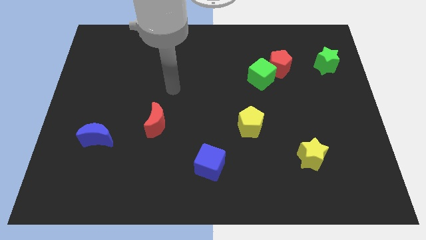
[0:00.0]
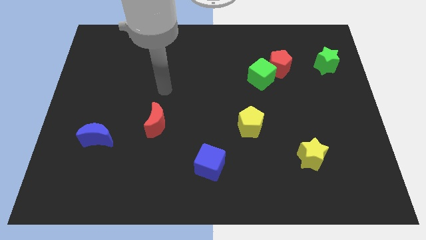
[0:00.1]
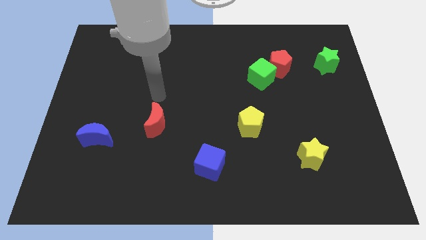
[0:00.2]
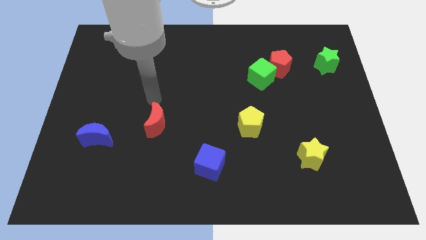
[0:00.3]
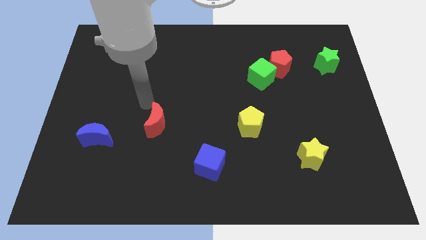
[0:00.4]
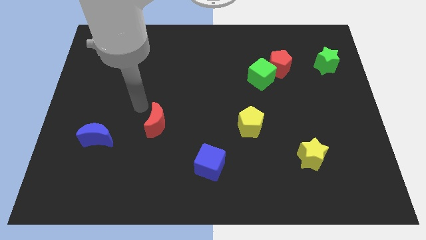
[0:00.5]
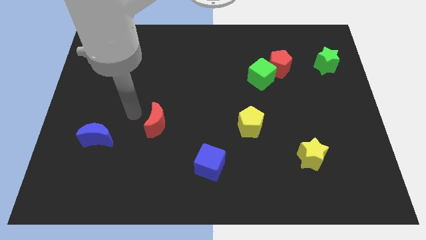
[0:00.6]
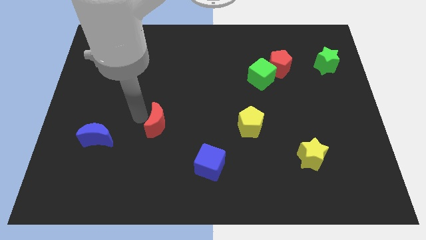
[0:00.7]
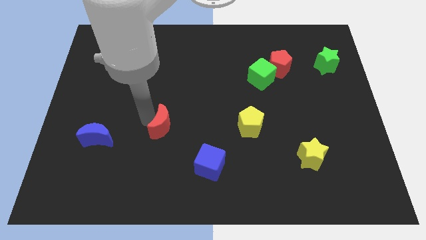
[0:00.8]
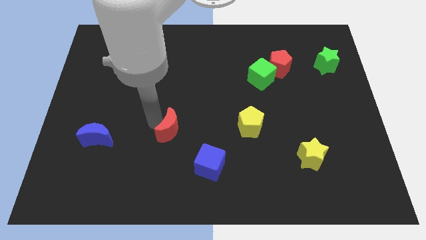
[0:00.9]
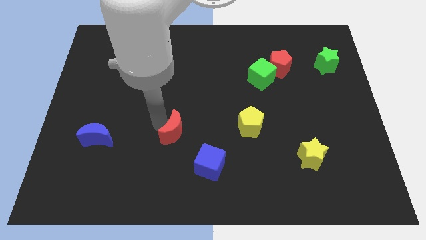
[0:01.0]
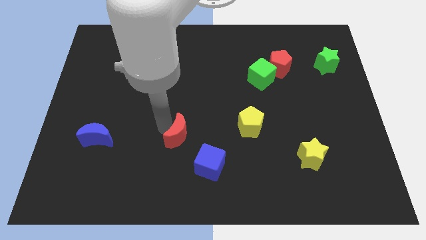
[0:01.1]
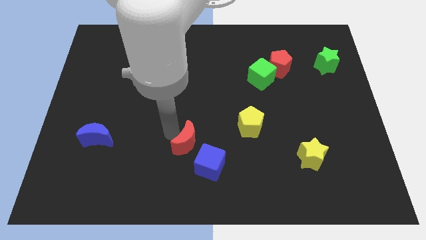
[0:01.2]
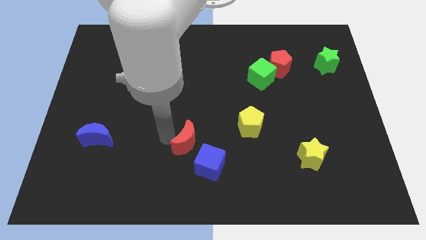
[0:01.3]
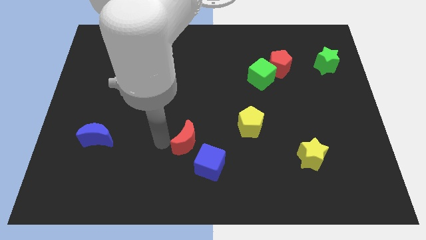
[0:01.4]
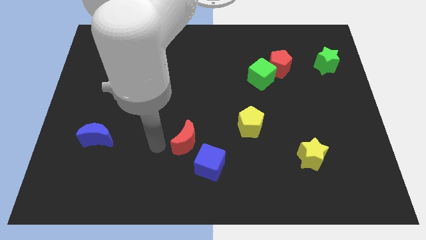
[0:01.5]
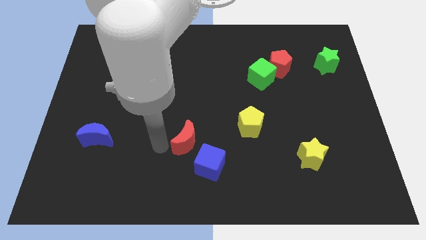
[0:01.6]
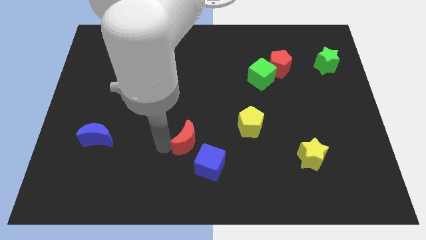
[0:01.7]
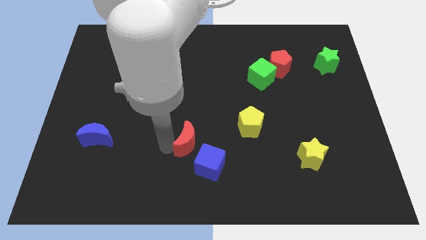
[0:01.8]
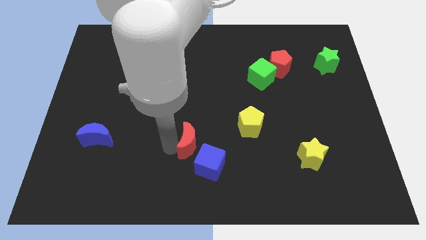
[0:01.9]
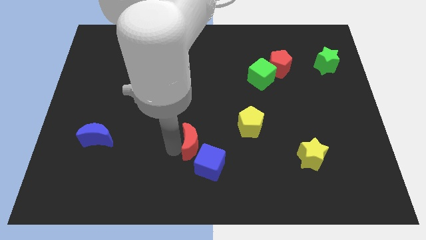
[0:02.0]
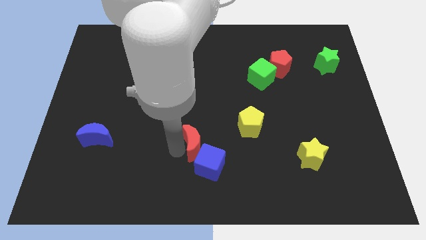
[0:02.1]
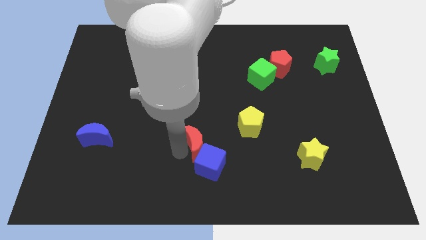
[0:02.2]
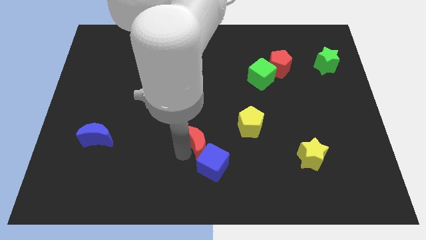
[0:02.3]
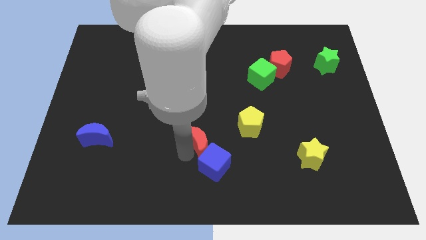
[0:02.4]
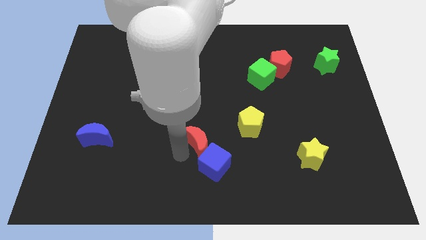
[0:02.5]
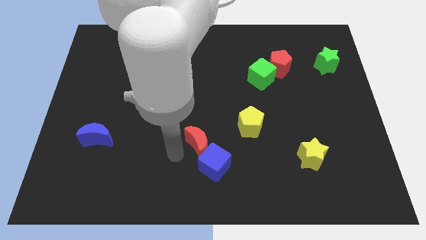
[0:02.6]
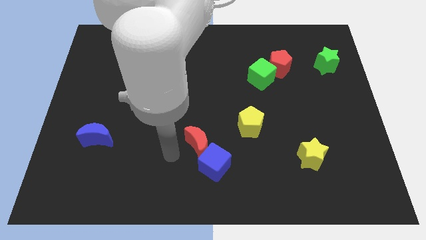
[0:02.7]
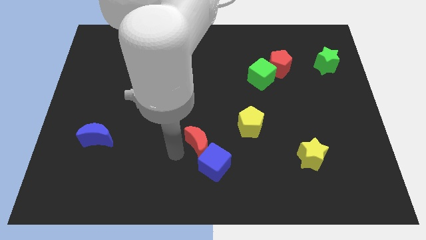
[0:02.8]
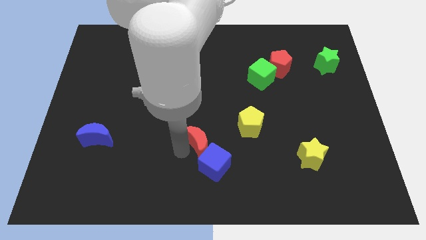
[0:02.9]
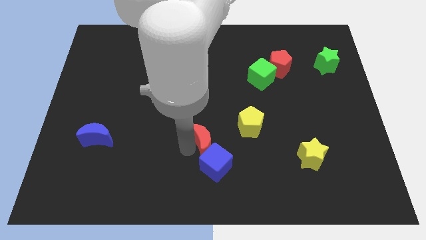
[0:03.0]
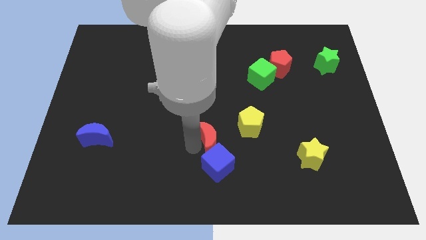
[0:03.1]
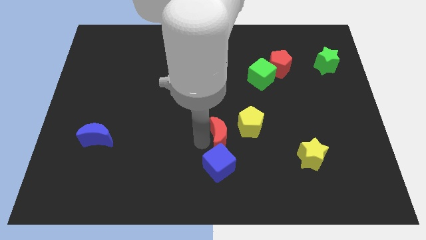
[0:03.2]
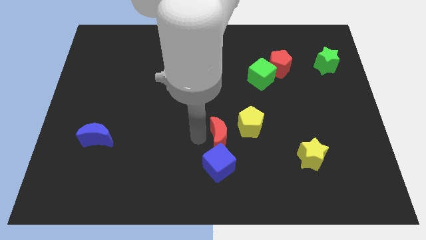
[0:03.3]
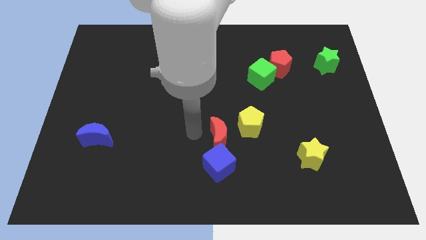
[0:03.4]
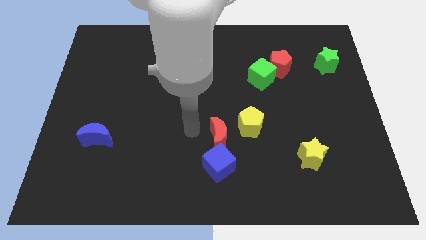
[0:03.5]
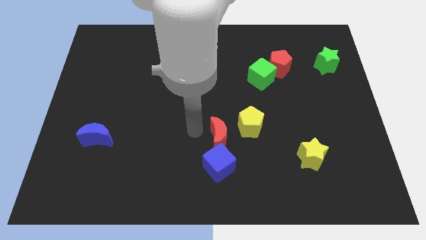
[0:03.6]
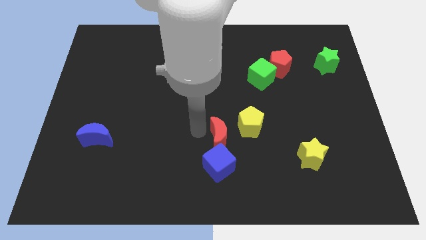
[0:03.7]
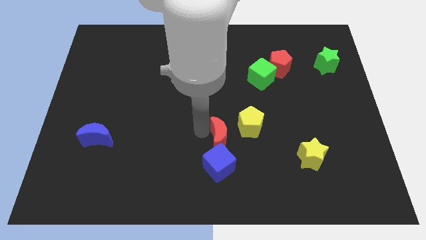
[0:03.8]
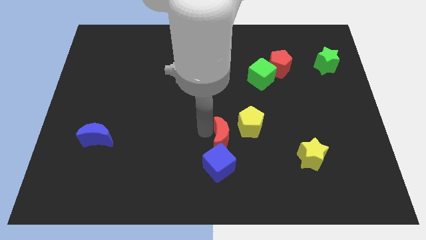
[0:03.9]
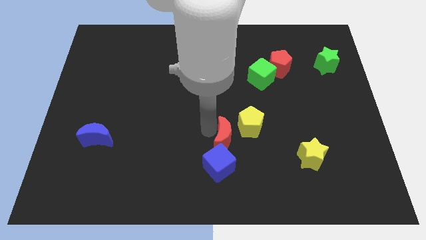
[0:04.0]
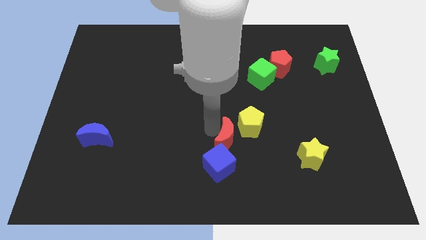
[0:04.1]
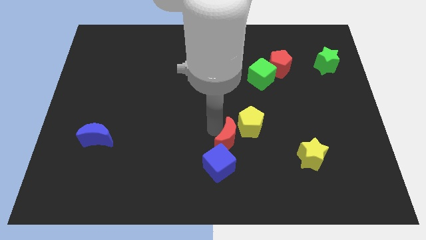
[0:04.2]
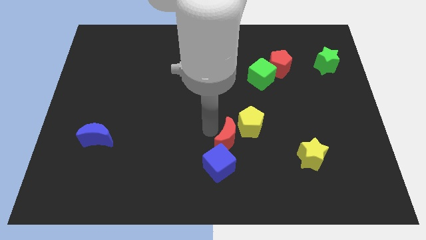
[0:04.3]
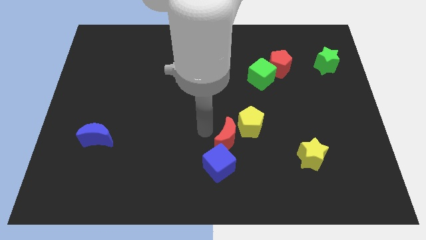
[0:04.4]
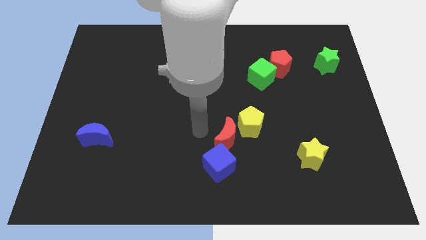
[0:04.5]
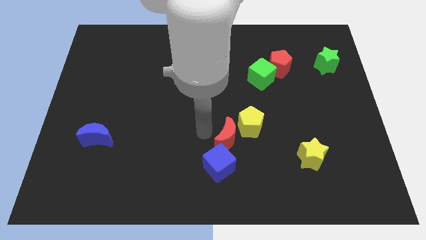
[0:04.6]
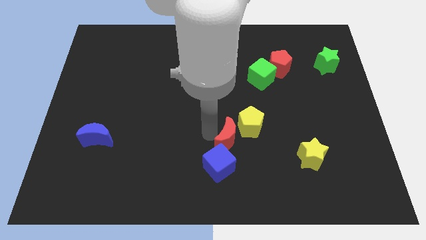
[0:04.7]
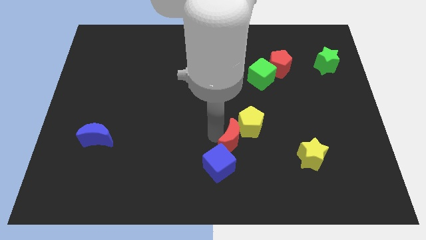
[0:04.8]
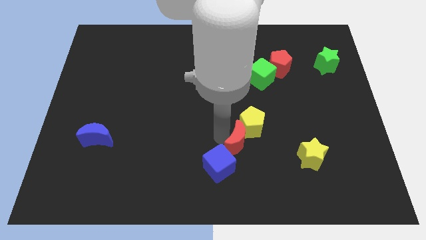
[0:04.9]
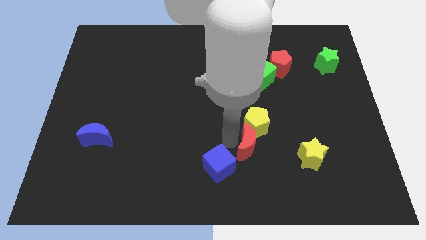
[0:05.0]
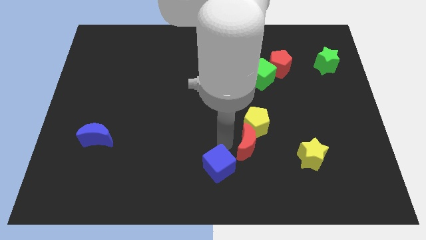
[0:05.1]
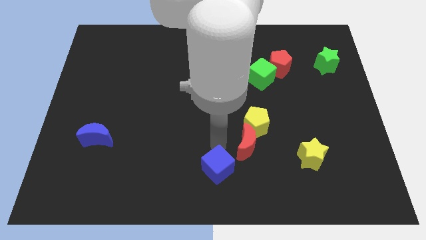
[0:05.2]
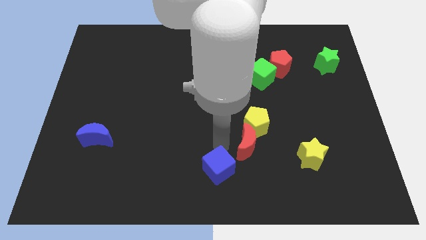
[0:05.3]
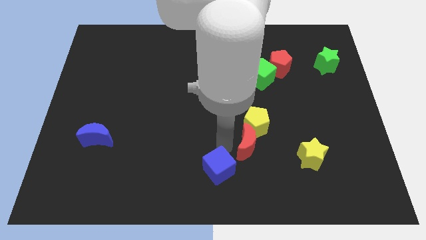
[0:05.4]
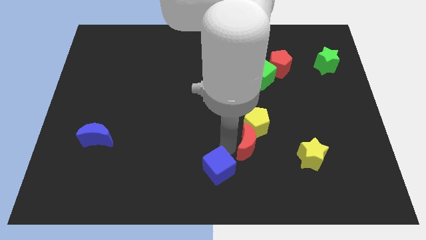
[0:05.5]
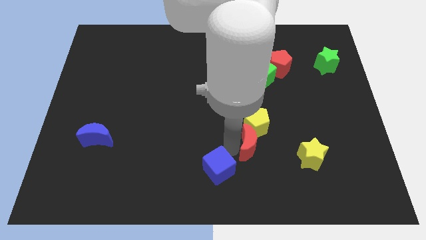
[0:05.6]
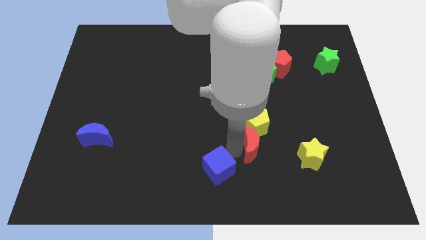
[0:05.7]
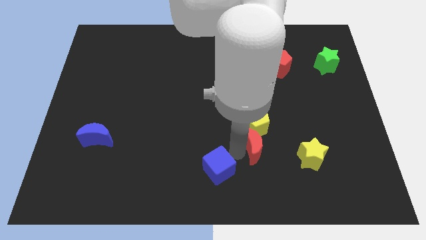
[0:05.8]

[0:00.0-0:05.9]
move the red moon to the bottom right side of the yellow pentagon

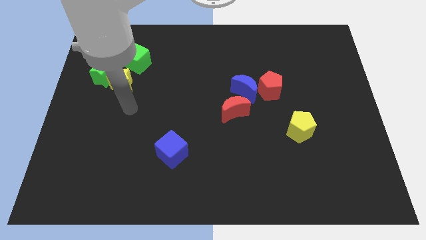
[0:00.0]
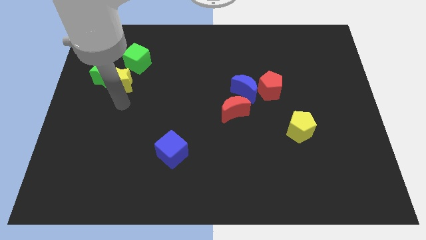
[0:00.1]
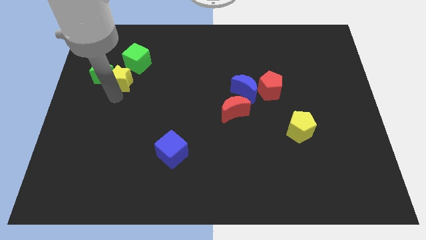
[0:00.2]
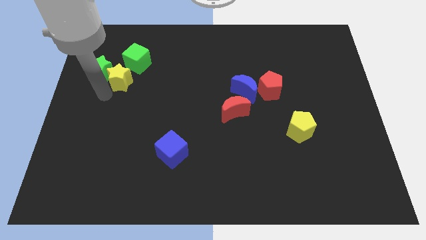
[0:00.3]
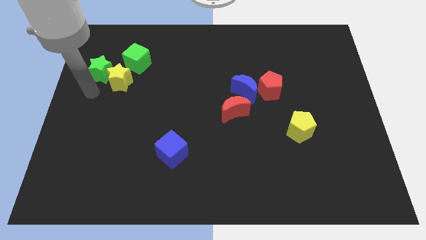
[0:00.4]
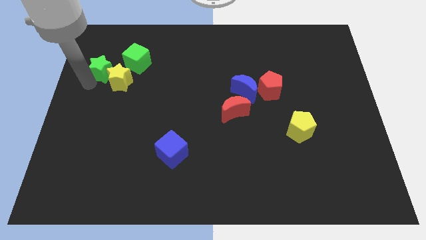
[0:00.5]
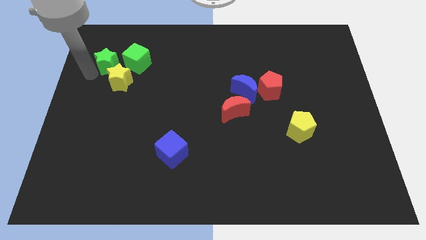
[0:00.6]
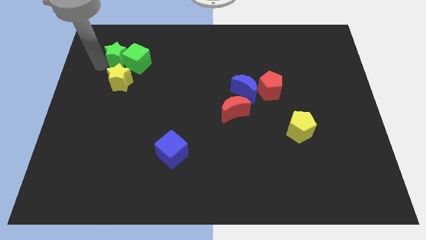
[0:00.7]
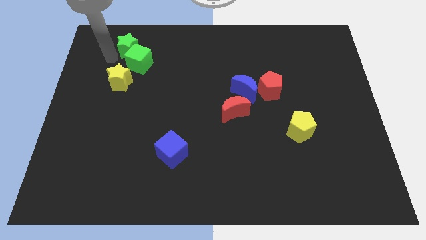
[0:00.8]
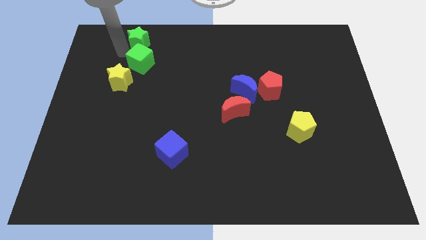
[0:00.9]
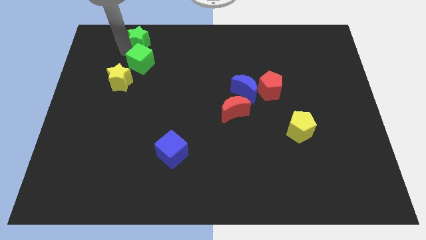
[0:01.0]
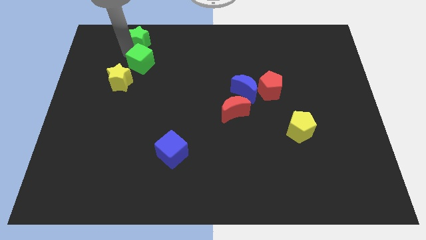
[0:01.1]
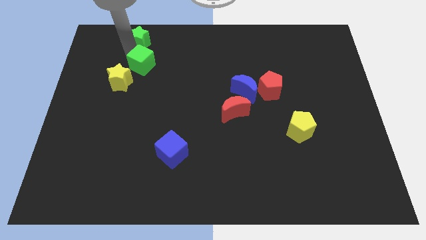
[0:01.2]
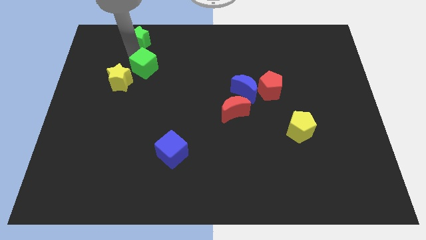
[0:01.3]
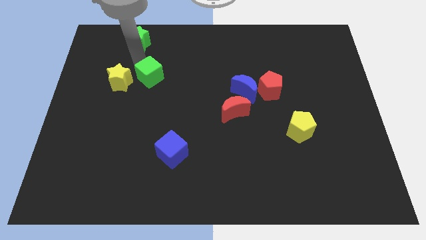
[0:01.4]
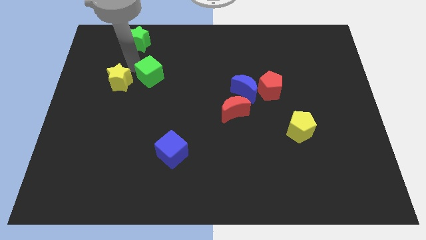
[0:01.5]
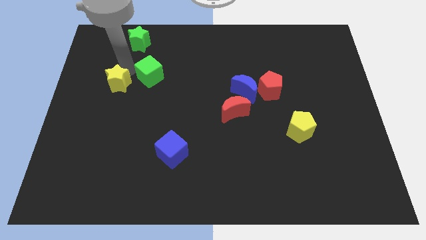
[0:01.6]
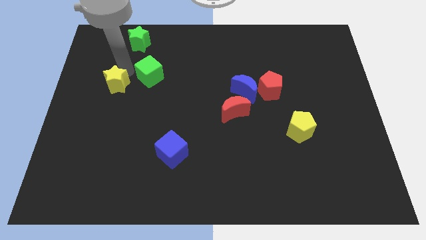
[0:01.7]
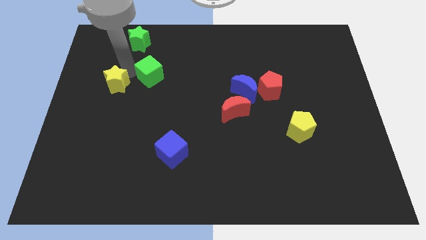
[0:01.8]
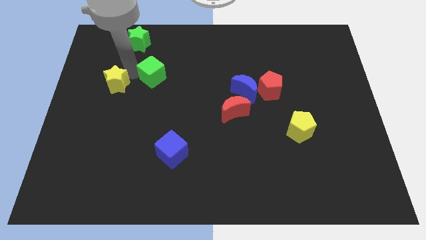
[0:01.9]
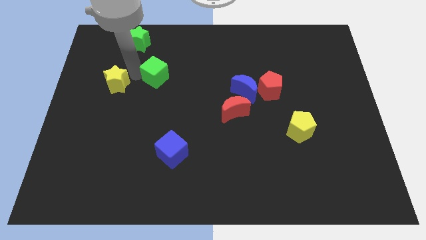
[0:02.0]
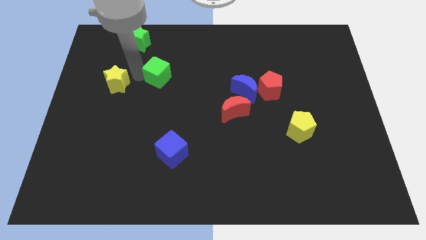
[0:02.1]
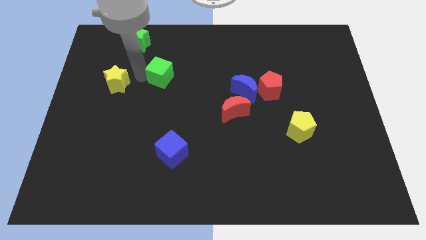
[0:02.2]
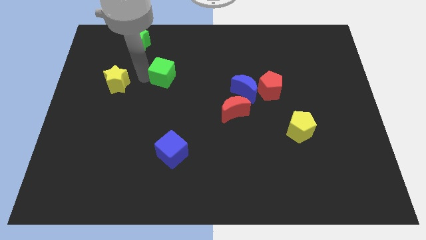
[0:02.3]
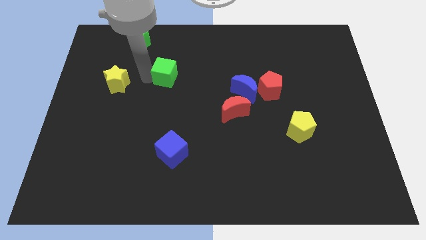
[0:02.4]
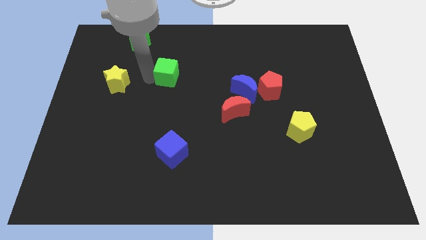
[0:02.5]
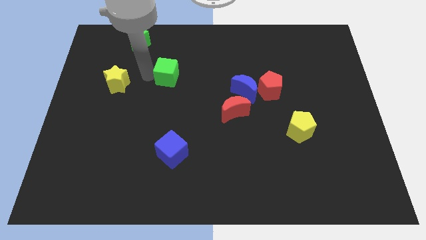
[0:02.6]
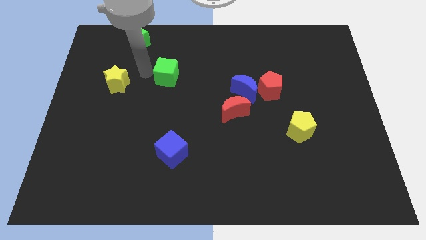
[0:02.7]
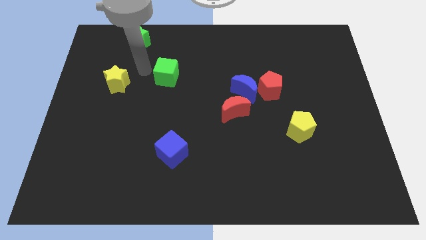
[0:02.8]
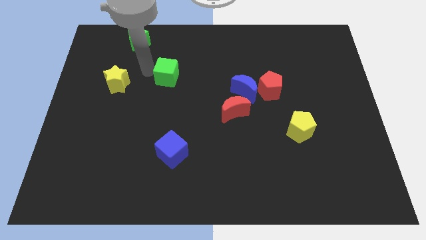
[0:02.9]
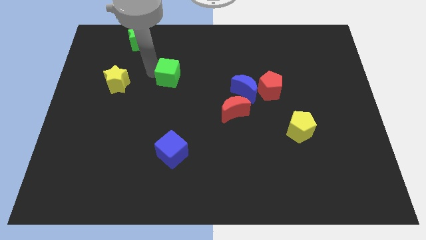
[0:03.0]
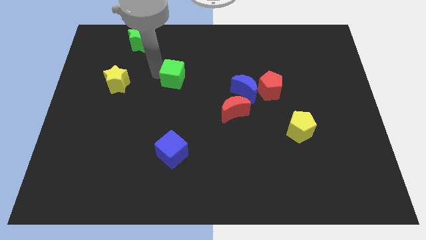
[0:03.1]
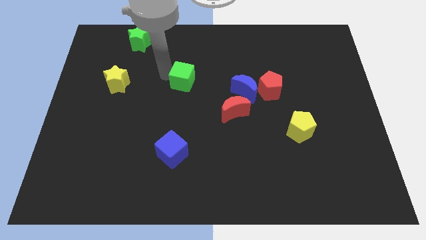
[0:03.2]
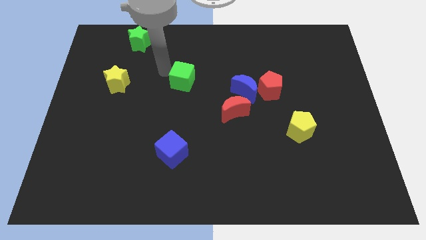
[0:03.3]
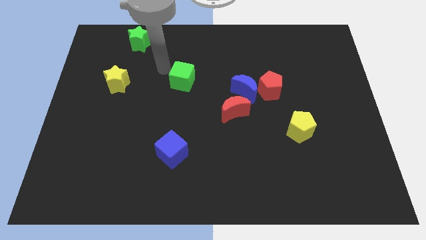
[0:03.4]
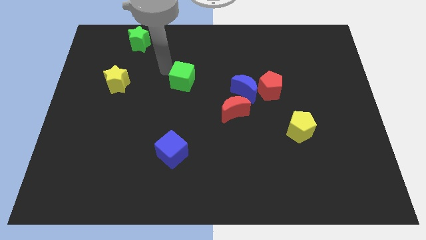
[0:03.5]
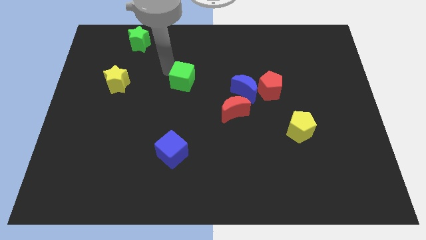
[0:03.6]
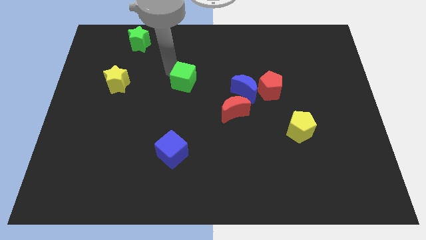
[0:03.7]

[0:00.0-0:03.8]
slide the green cube just left of the blue moon
